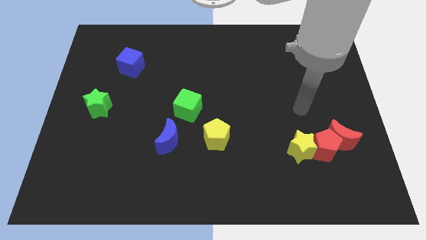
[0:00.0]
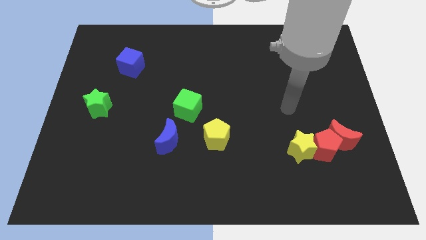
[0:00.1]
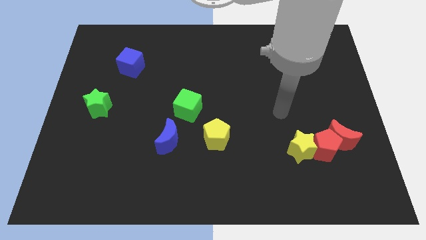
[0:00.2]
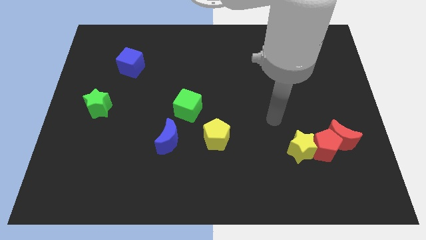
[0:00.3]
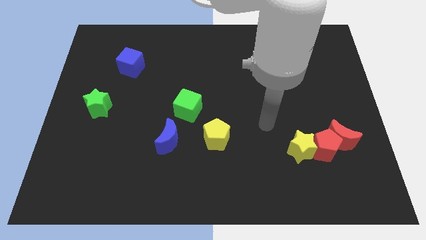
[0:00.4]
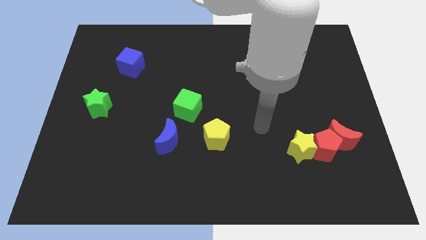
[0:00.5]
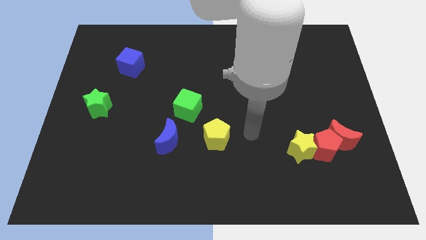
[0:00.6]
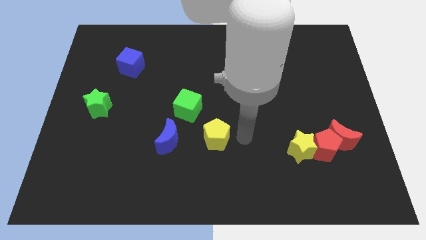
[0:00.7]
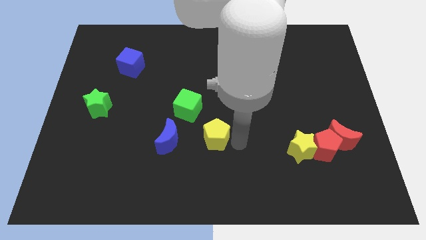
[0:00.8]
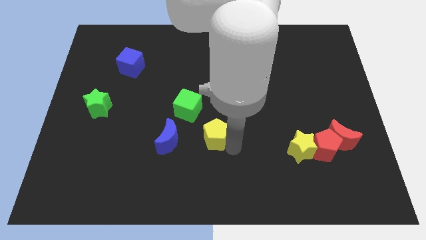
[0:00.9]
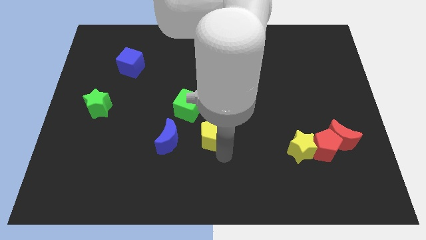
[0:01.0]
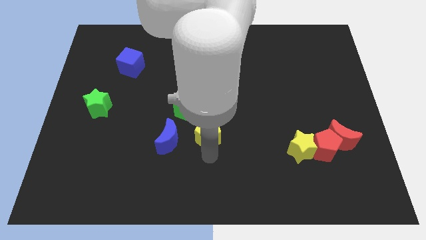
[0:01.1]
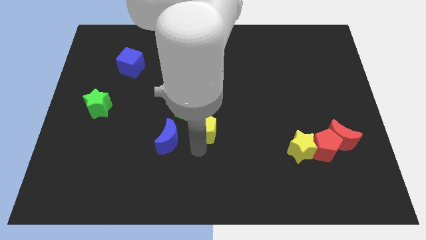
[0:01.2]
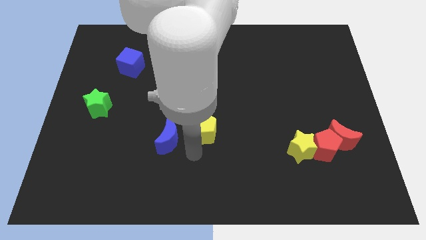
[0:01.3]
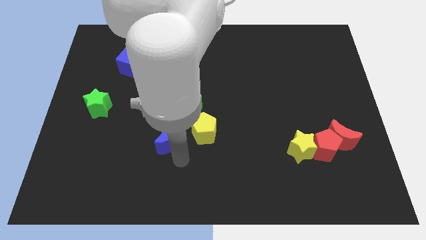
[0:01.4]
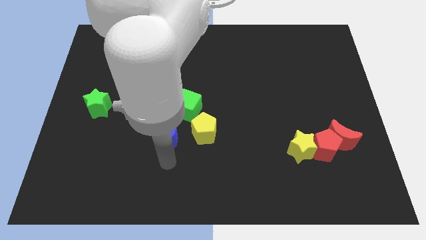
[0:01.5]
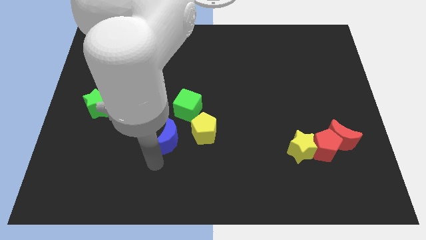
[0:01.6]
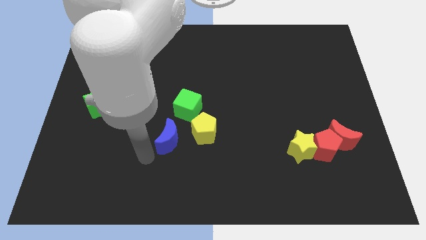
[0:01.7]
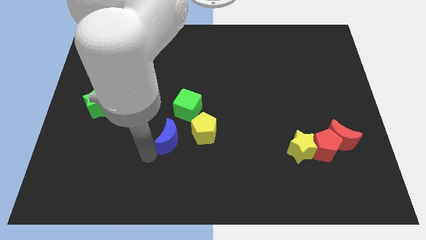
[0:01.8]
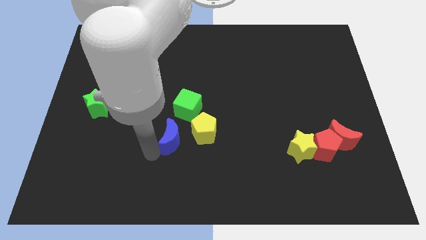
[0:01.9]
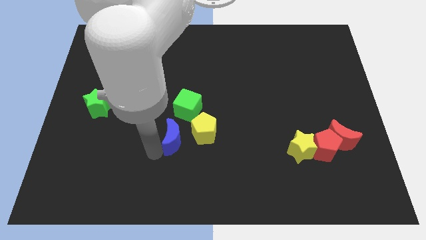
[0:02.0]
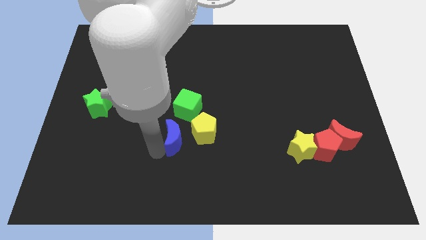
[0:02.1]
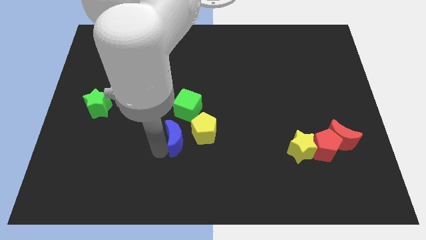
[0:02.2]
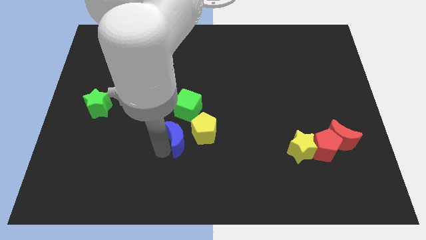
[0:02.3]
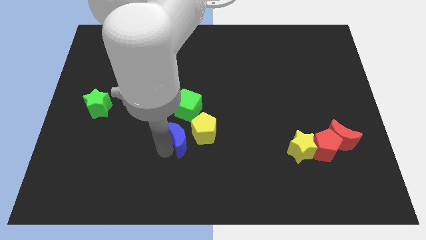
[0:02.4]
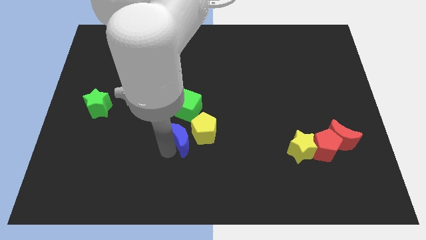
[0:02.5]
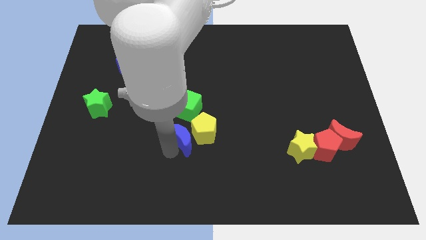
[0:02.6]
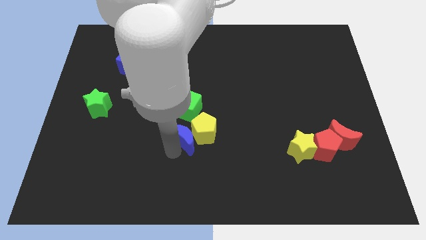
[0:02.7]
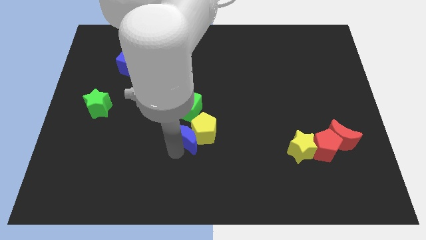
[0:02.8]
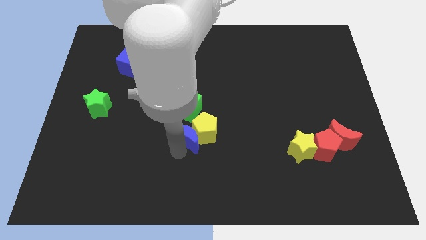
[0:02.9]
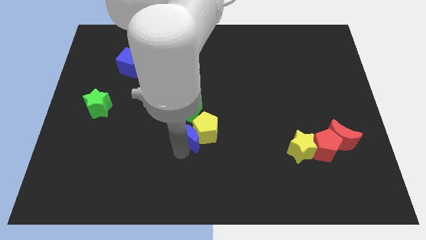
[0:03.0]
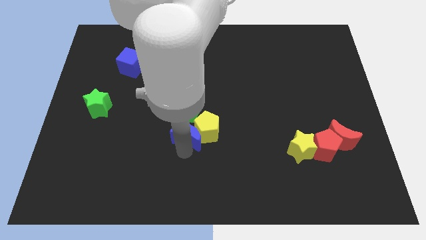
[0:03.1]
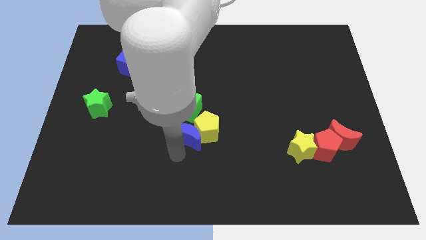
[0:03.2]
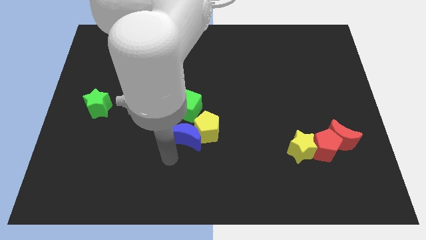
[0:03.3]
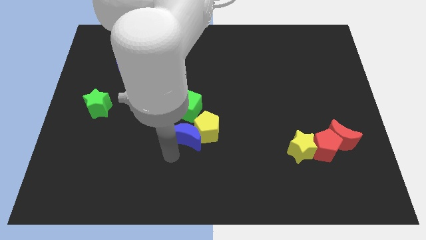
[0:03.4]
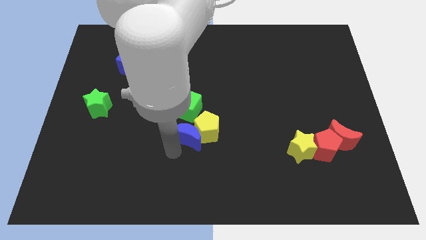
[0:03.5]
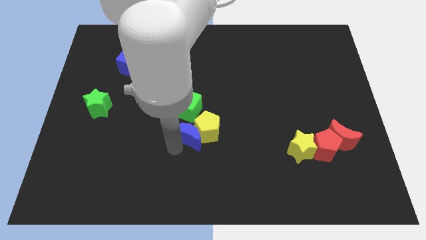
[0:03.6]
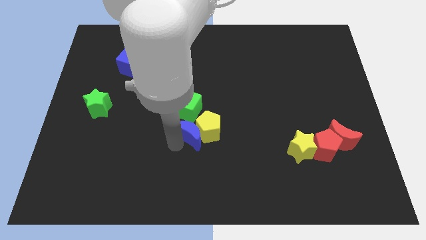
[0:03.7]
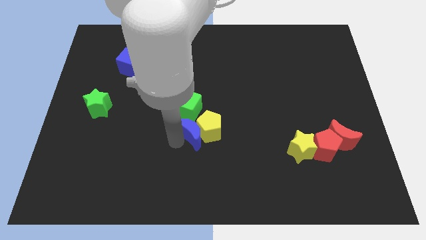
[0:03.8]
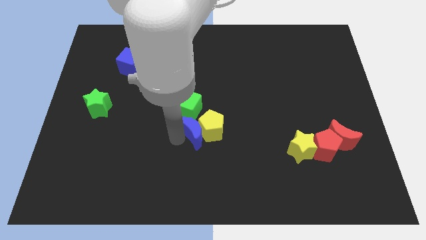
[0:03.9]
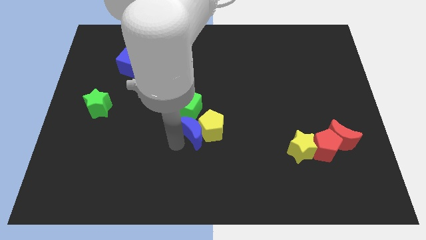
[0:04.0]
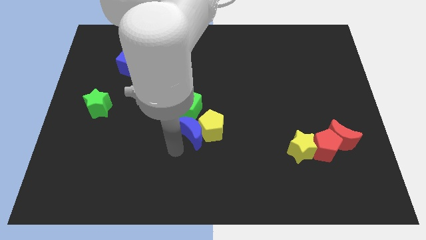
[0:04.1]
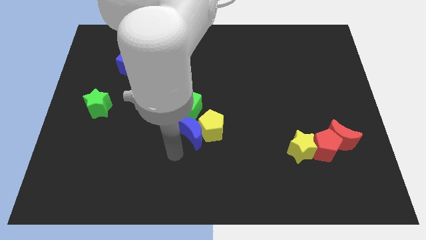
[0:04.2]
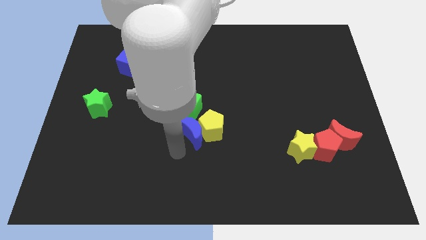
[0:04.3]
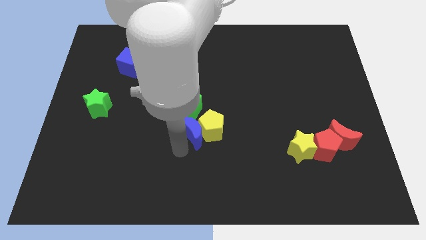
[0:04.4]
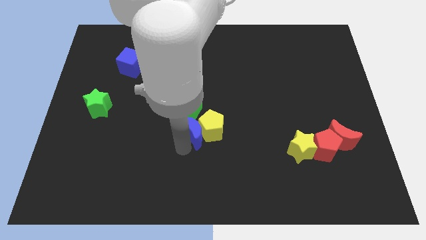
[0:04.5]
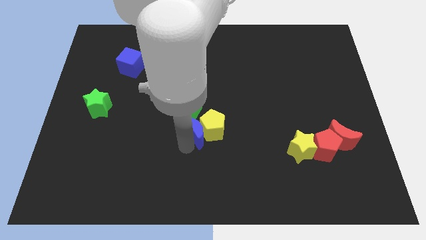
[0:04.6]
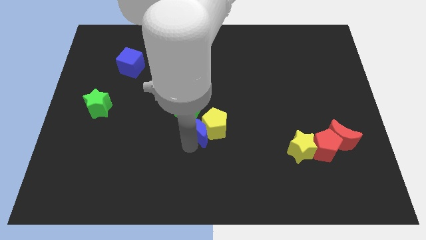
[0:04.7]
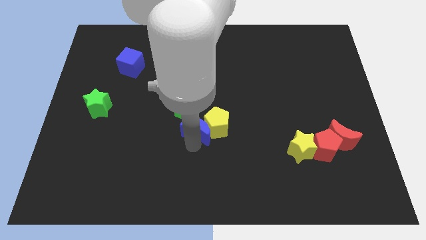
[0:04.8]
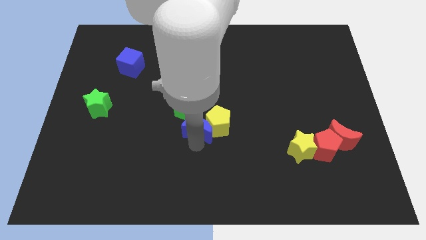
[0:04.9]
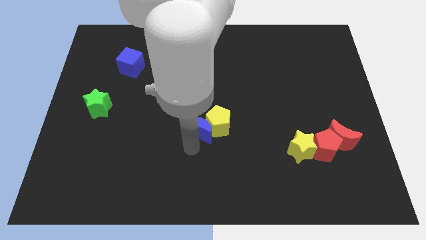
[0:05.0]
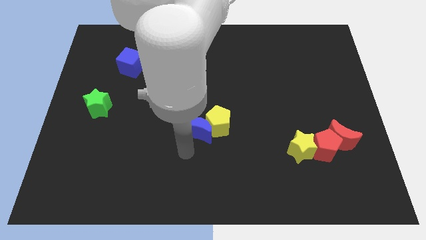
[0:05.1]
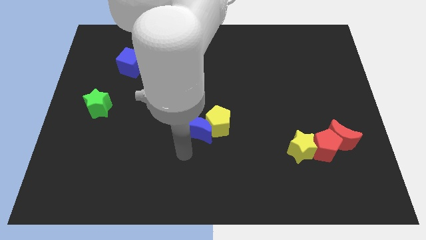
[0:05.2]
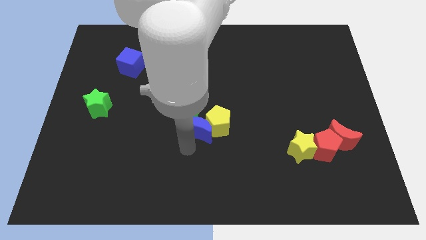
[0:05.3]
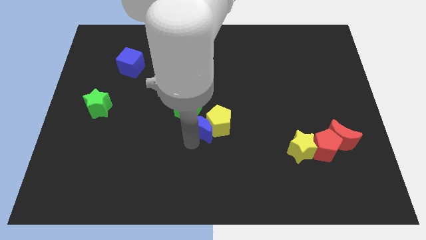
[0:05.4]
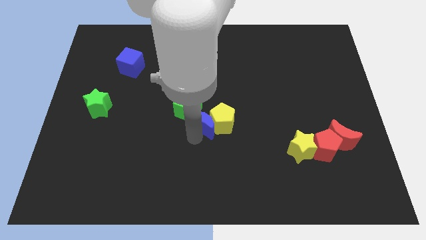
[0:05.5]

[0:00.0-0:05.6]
slide the blue moon somewhat upwards and then to the right

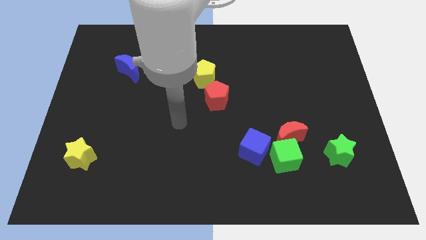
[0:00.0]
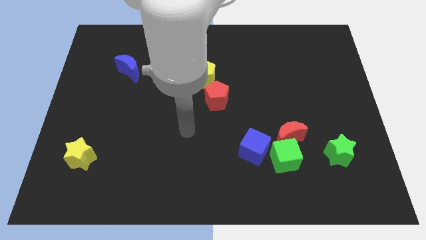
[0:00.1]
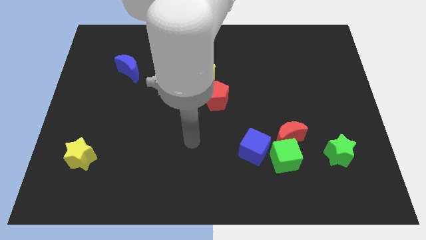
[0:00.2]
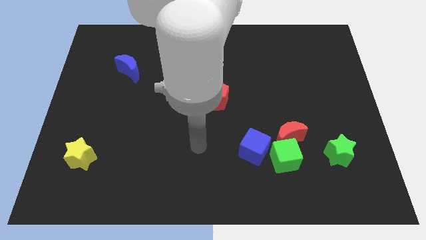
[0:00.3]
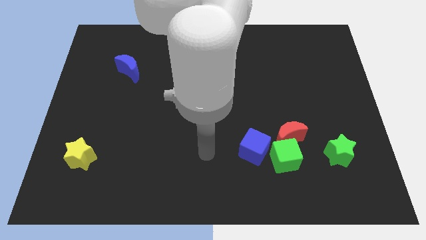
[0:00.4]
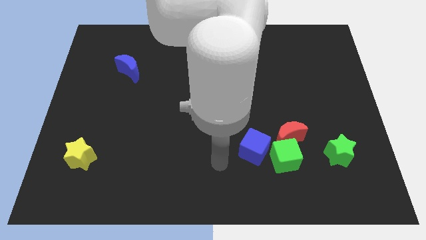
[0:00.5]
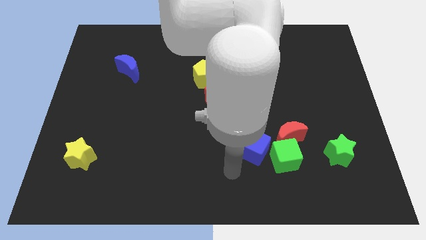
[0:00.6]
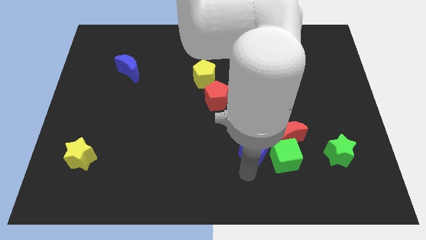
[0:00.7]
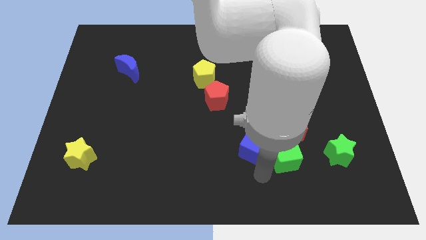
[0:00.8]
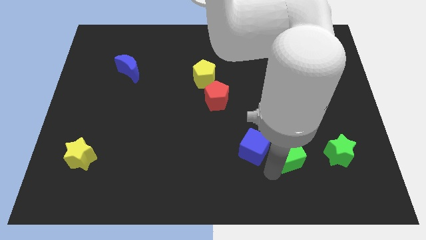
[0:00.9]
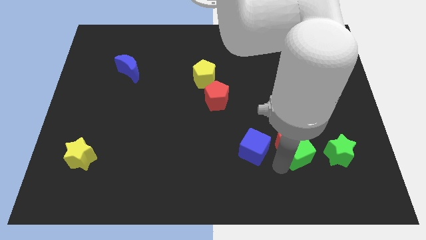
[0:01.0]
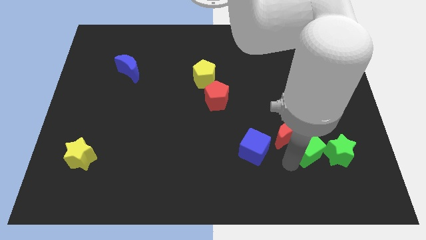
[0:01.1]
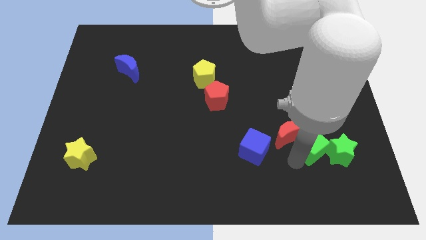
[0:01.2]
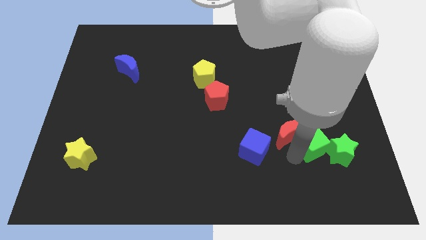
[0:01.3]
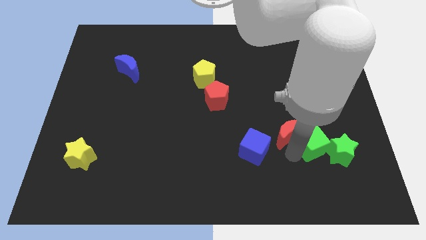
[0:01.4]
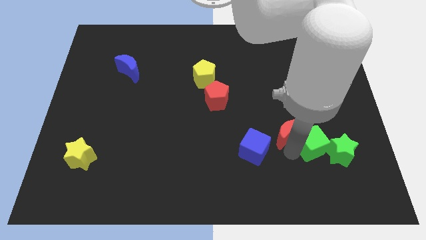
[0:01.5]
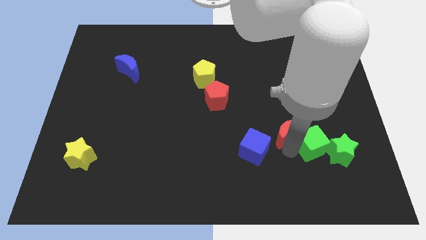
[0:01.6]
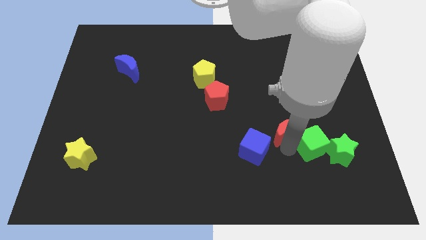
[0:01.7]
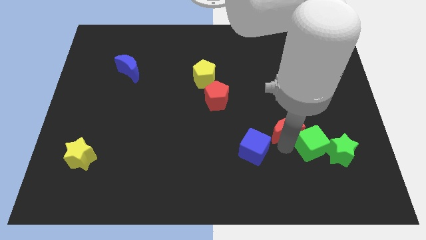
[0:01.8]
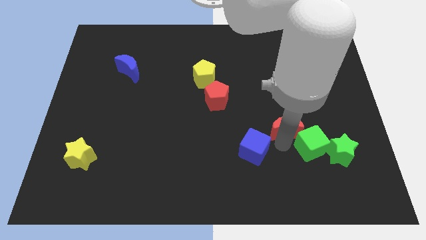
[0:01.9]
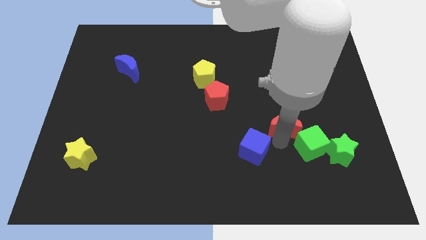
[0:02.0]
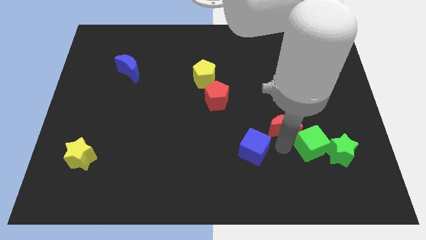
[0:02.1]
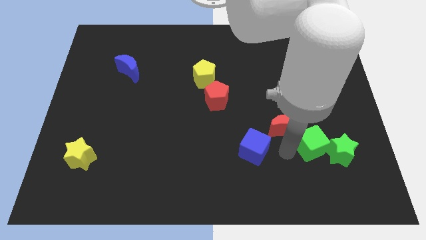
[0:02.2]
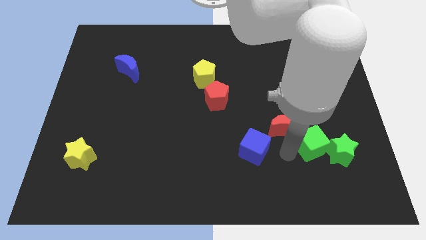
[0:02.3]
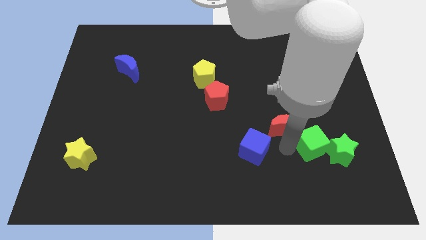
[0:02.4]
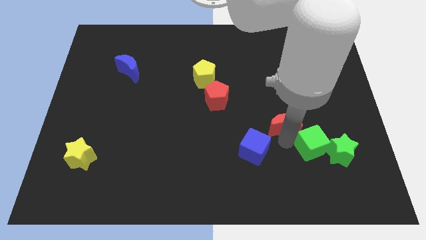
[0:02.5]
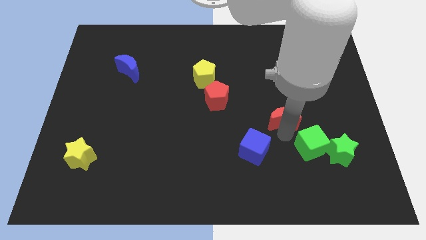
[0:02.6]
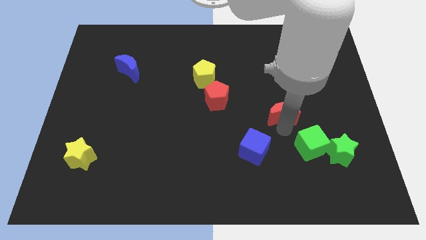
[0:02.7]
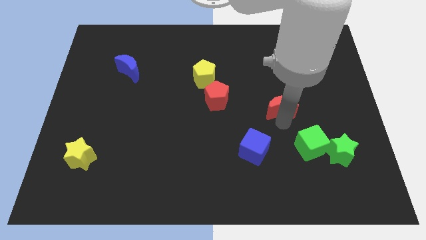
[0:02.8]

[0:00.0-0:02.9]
slide the red moon upwards a bit
